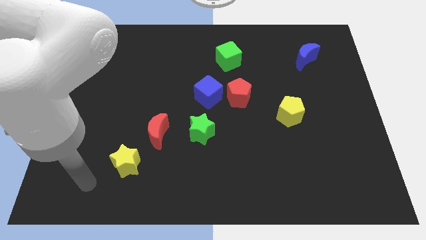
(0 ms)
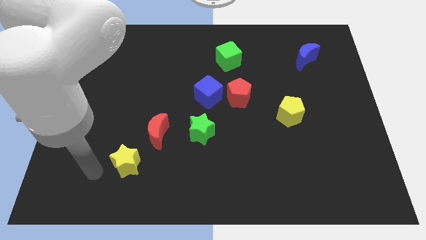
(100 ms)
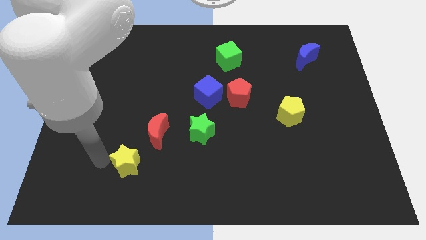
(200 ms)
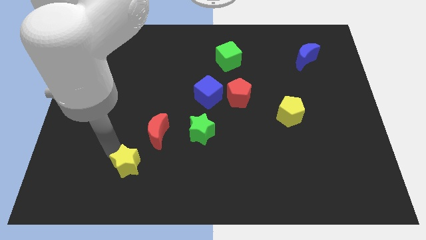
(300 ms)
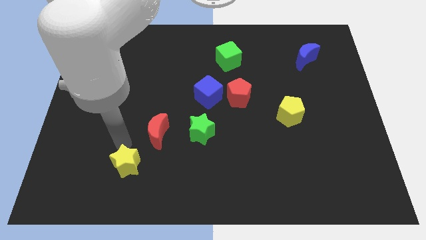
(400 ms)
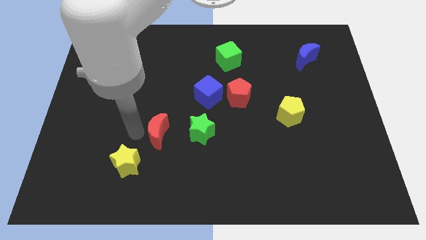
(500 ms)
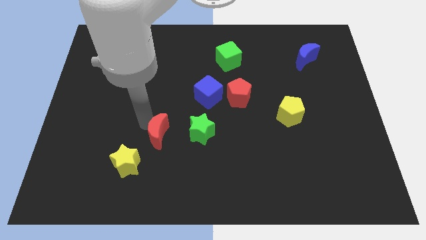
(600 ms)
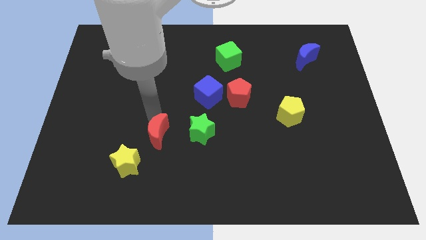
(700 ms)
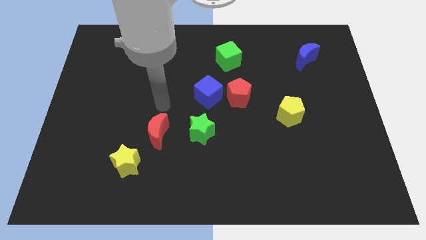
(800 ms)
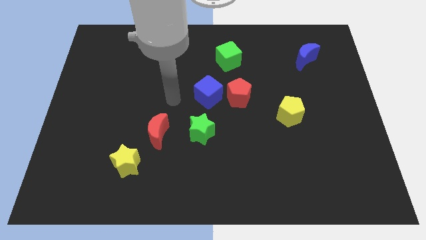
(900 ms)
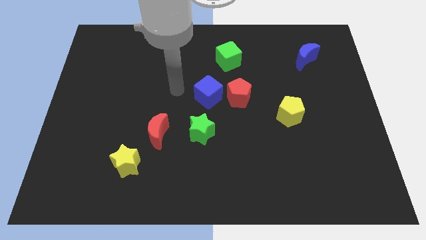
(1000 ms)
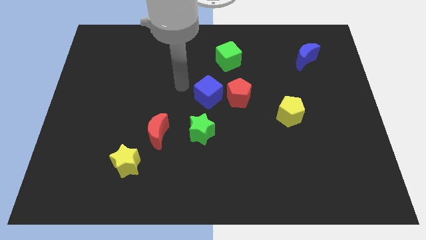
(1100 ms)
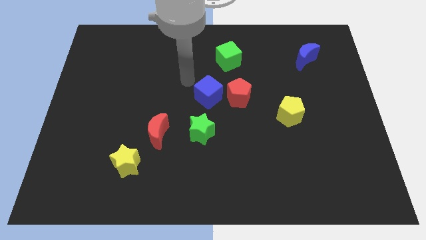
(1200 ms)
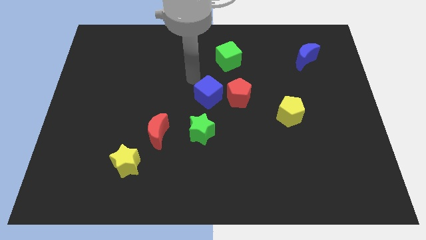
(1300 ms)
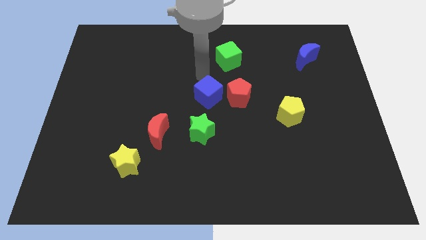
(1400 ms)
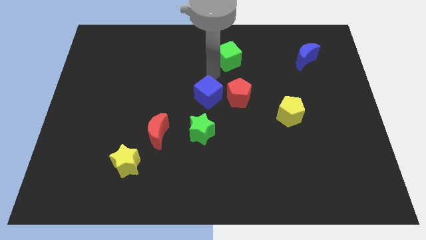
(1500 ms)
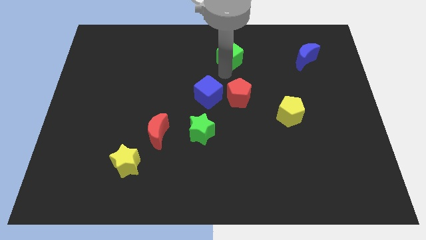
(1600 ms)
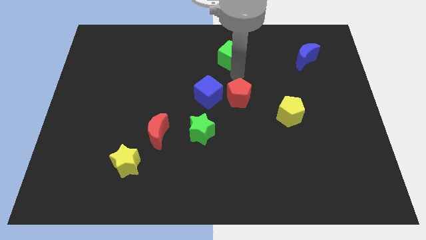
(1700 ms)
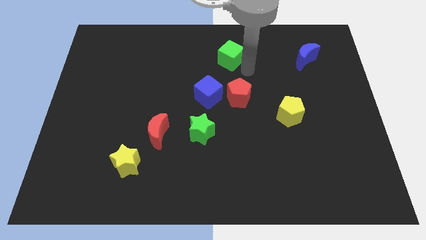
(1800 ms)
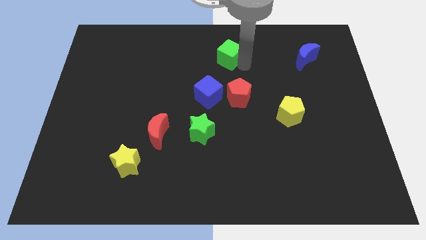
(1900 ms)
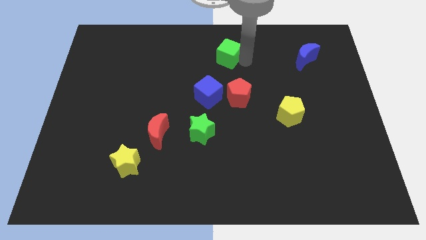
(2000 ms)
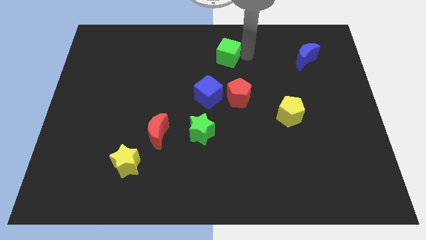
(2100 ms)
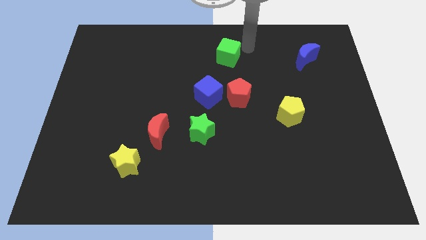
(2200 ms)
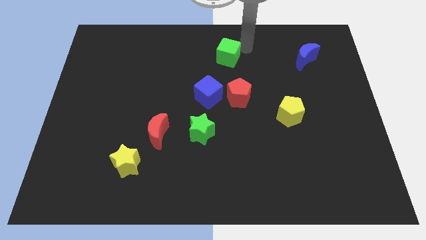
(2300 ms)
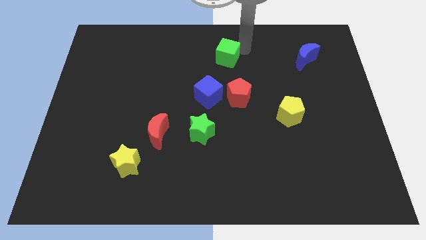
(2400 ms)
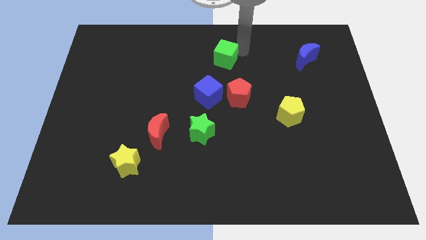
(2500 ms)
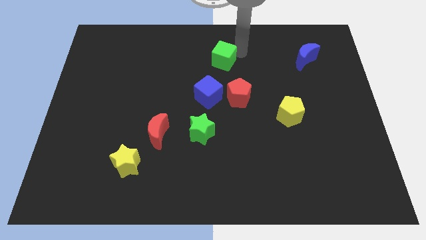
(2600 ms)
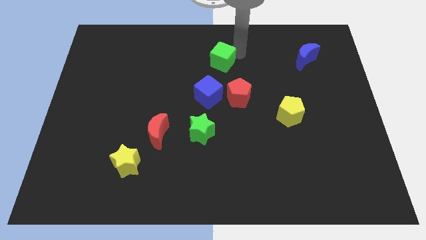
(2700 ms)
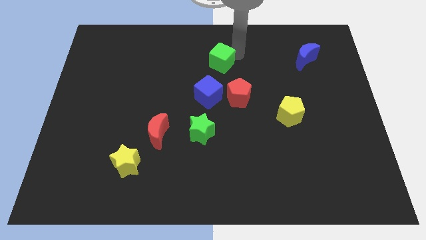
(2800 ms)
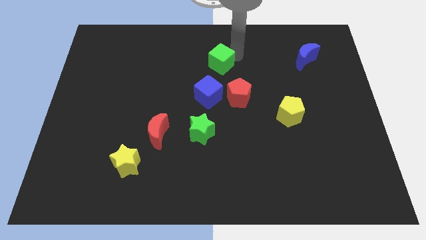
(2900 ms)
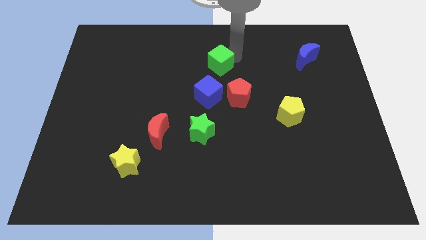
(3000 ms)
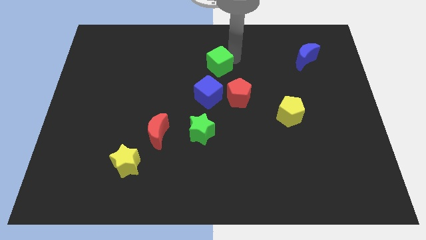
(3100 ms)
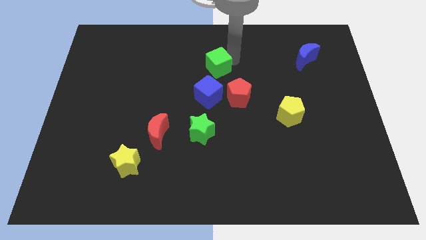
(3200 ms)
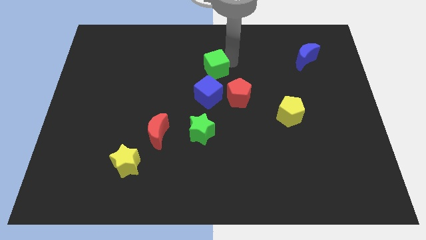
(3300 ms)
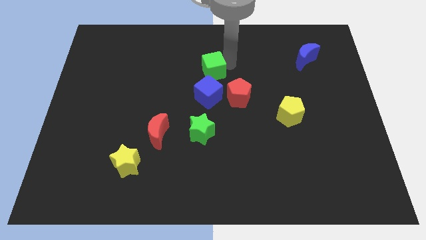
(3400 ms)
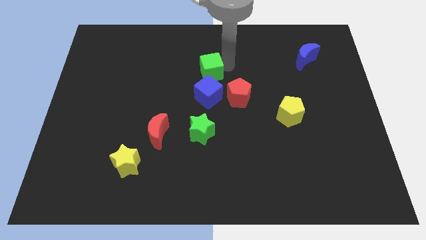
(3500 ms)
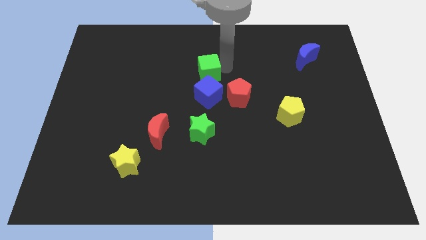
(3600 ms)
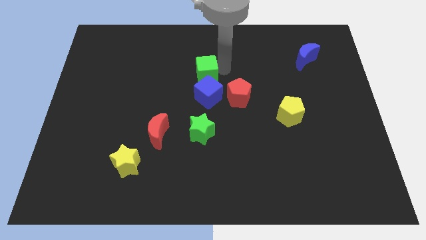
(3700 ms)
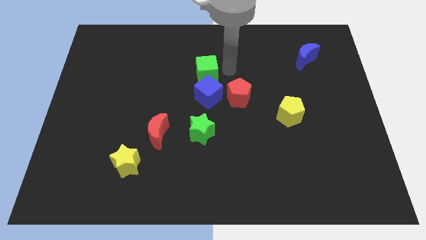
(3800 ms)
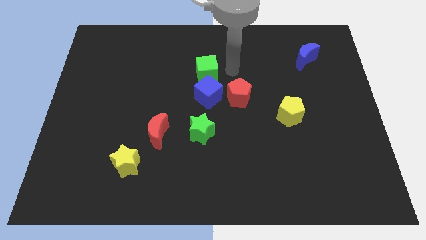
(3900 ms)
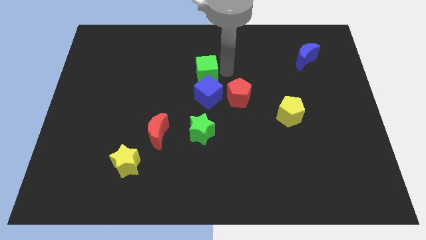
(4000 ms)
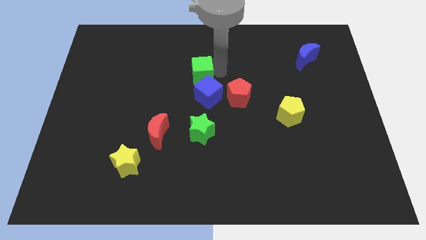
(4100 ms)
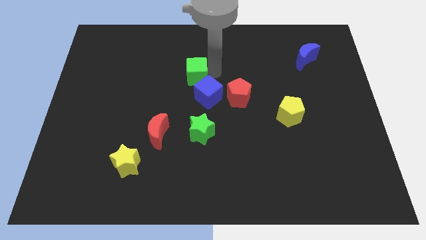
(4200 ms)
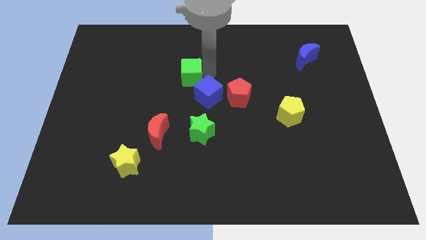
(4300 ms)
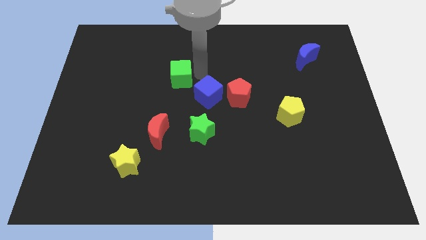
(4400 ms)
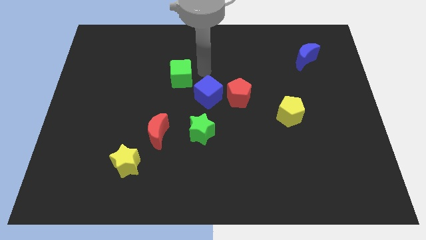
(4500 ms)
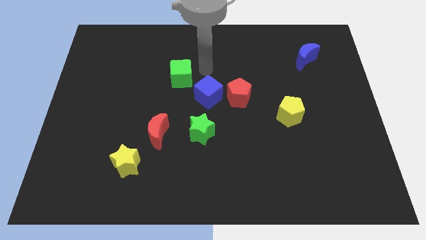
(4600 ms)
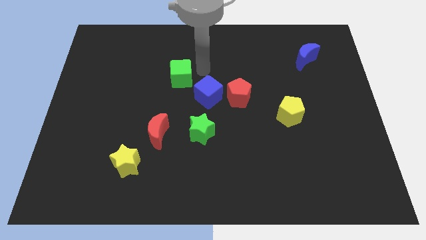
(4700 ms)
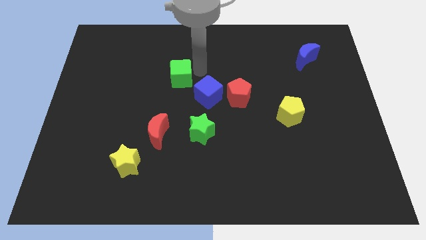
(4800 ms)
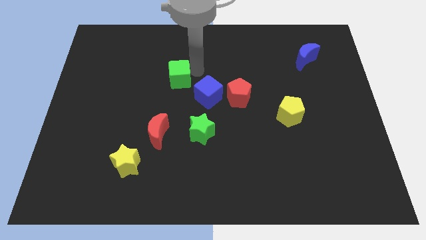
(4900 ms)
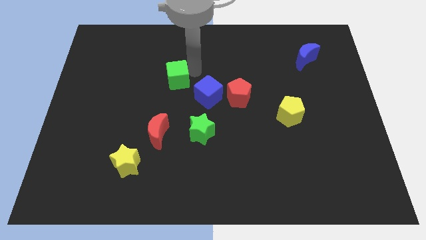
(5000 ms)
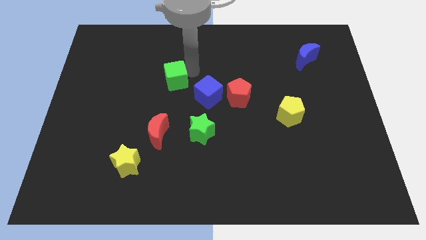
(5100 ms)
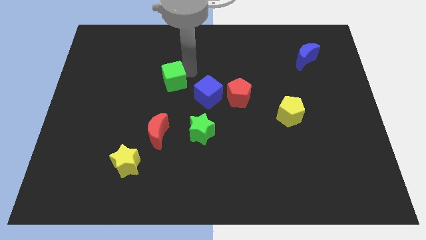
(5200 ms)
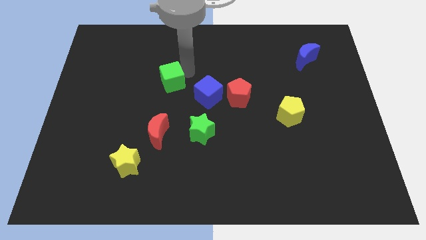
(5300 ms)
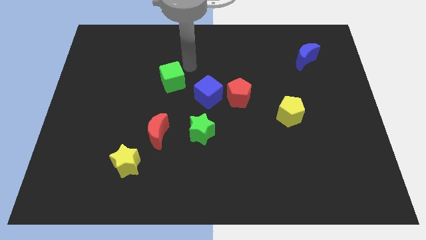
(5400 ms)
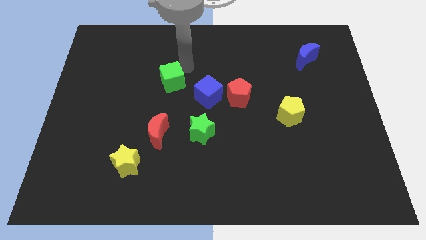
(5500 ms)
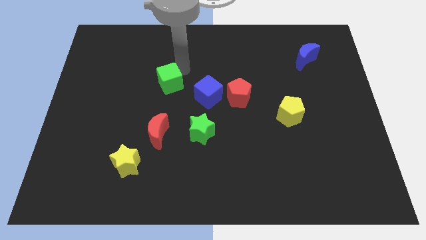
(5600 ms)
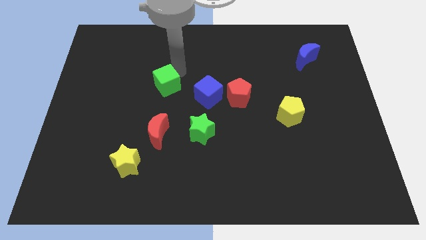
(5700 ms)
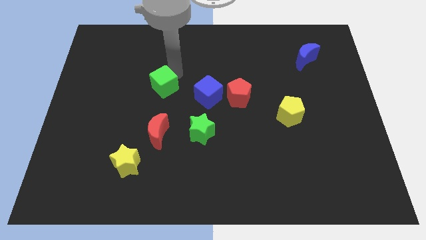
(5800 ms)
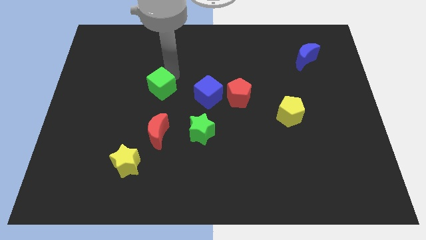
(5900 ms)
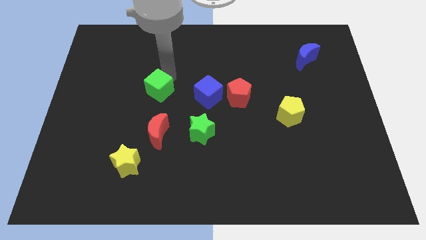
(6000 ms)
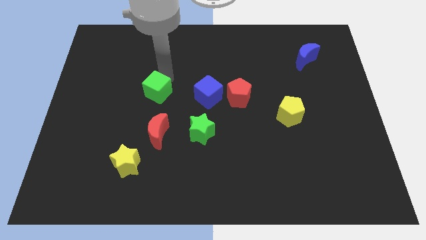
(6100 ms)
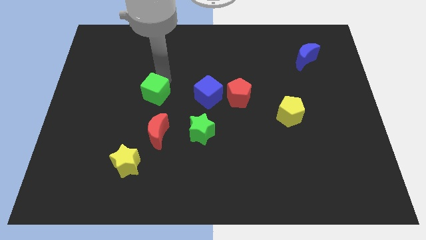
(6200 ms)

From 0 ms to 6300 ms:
slide the green cube down and to the left diagonally

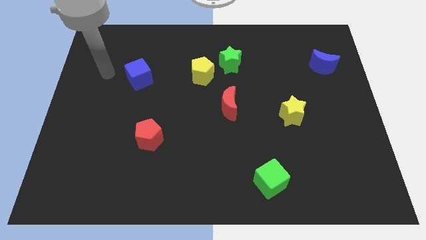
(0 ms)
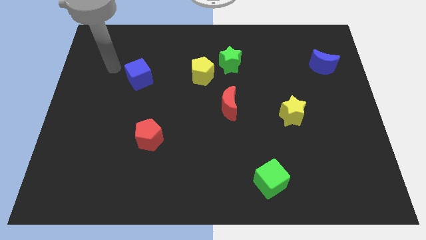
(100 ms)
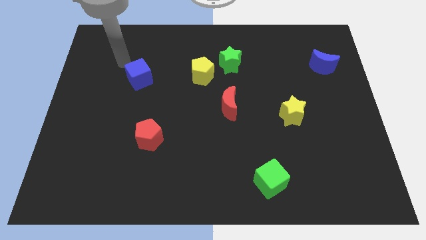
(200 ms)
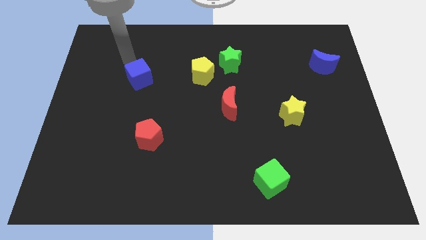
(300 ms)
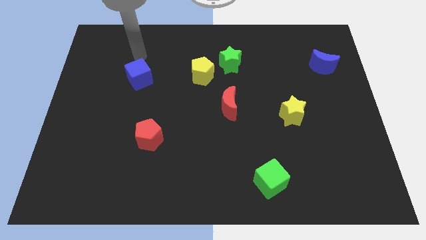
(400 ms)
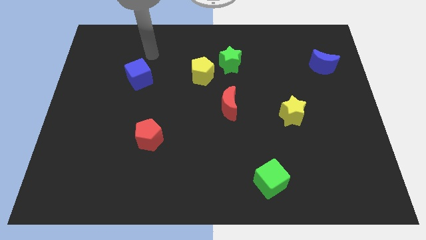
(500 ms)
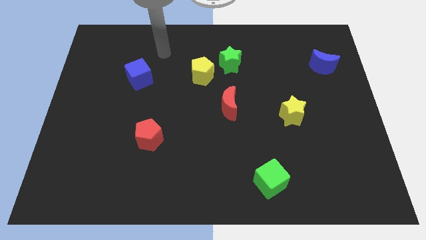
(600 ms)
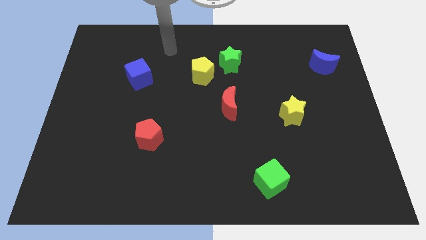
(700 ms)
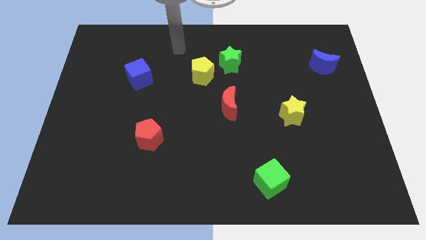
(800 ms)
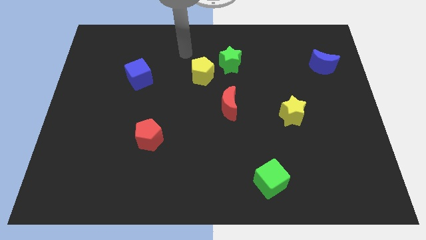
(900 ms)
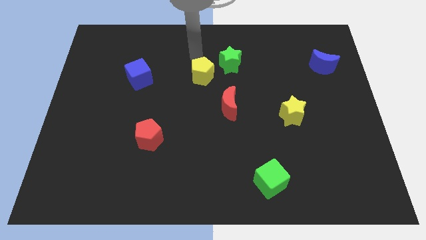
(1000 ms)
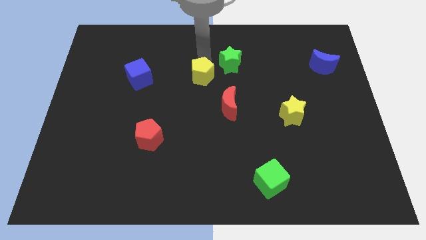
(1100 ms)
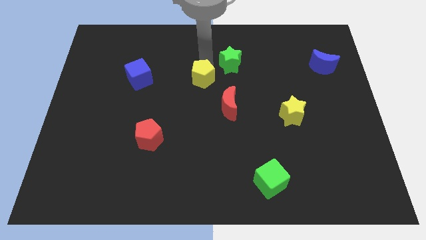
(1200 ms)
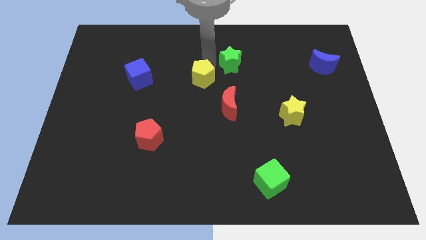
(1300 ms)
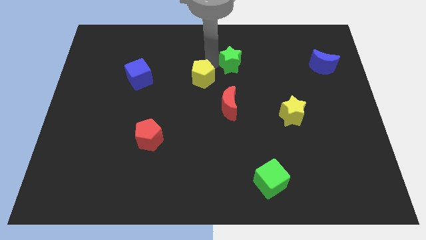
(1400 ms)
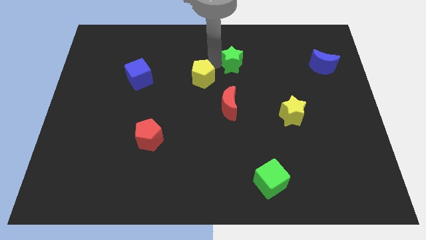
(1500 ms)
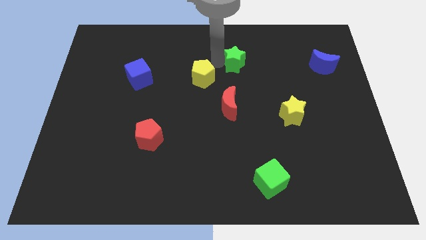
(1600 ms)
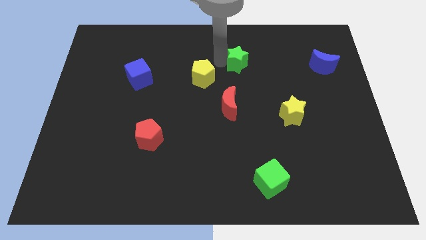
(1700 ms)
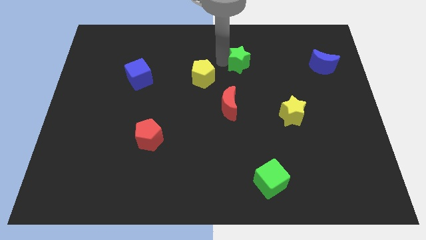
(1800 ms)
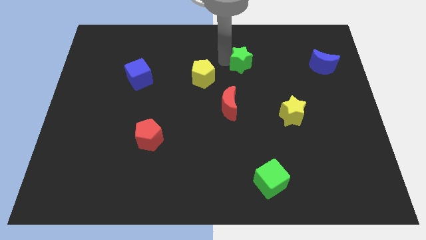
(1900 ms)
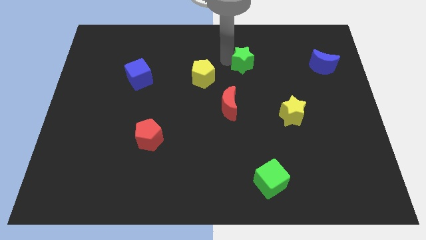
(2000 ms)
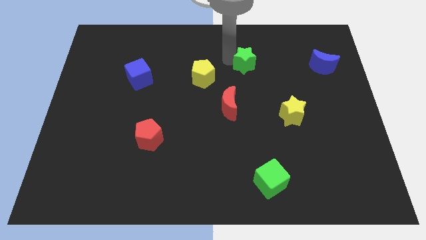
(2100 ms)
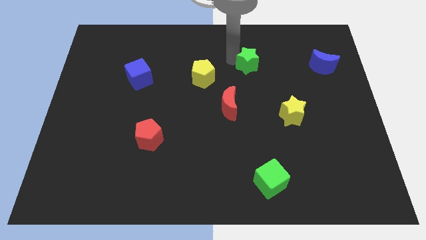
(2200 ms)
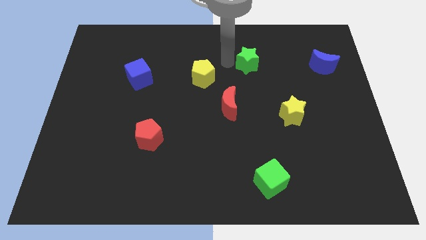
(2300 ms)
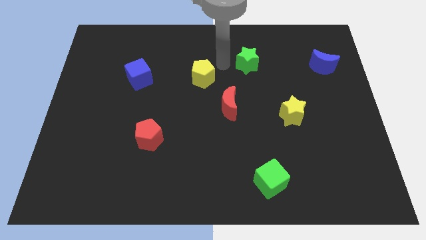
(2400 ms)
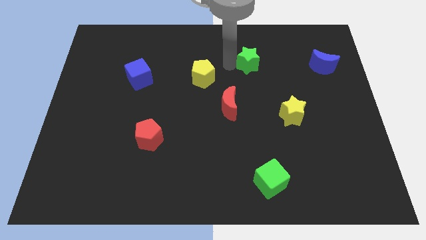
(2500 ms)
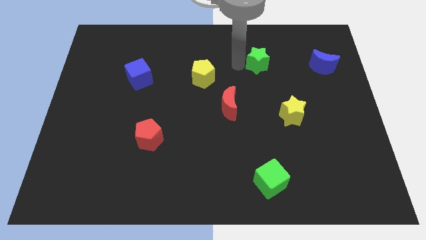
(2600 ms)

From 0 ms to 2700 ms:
slightly move the green star to the right
